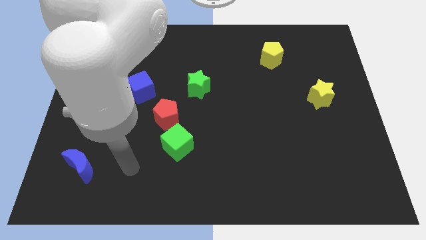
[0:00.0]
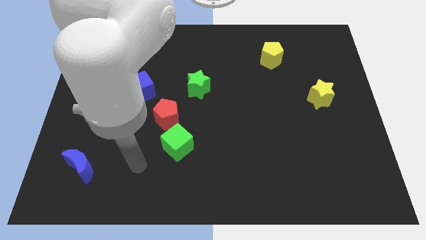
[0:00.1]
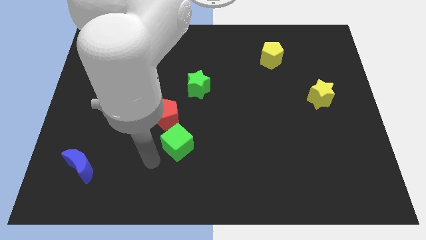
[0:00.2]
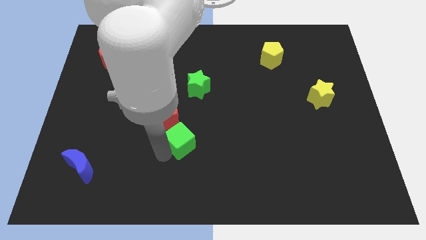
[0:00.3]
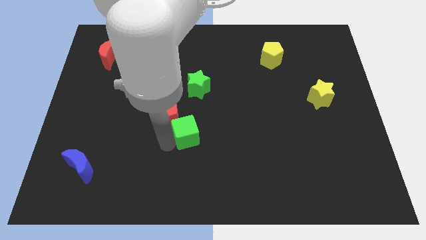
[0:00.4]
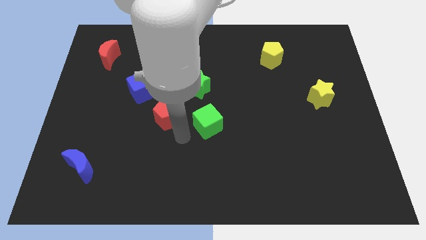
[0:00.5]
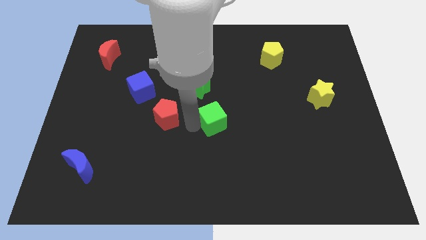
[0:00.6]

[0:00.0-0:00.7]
move the red pentagon away from the green cube

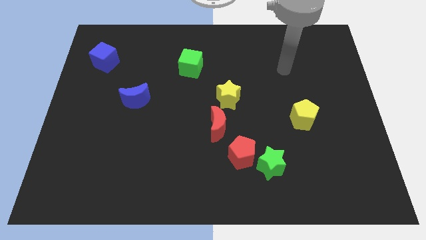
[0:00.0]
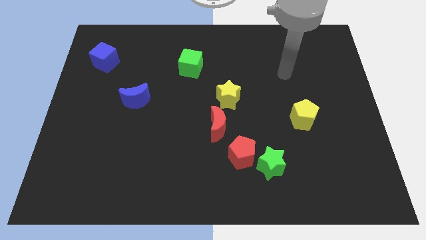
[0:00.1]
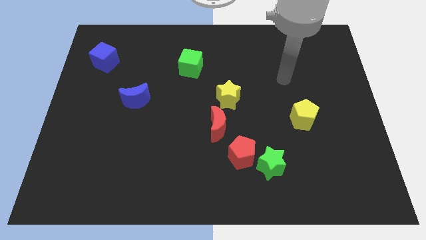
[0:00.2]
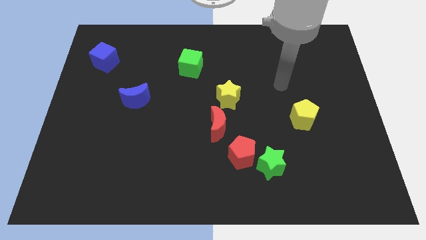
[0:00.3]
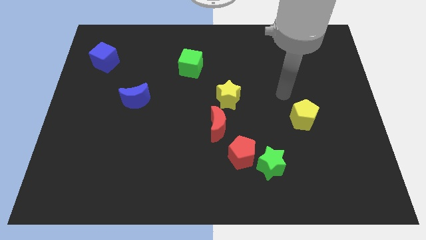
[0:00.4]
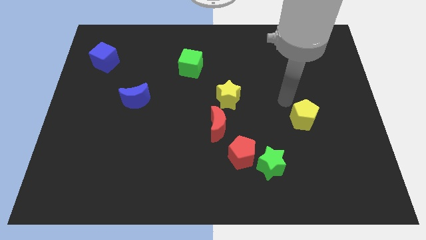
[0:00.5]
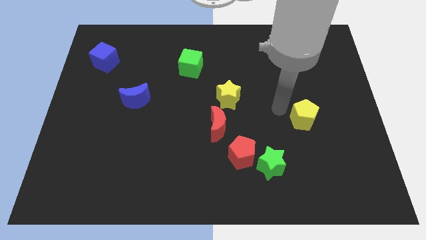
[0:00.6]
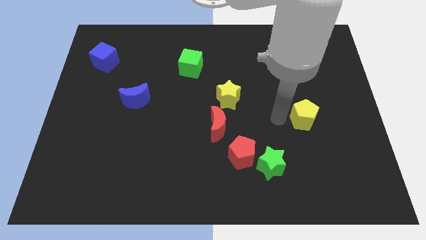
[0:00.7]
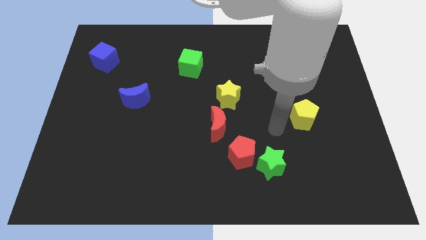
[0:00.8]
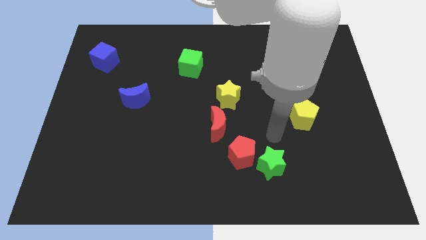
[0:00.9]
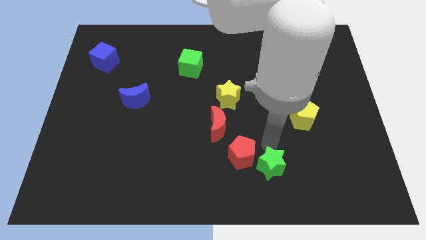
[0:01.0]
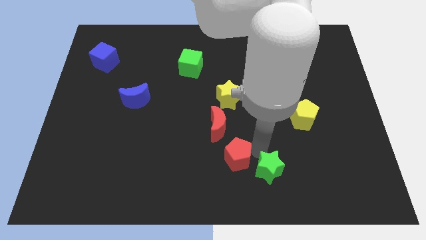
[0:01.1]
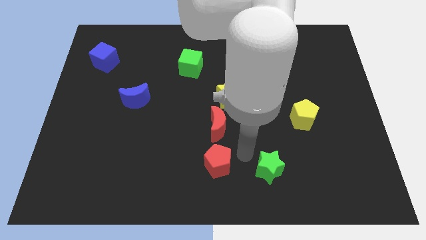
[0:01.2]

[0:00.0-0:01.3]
separate the green star from the red pentagon

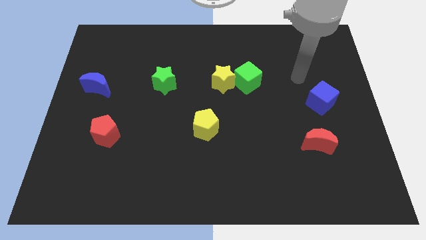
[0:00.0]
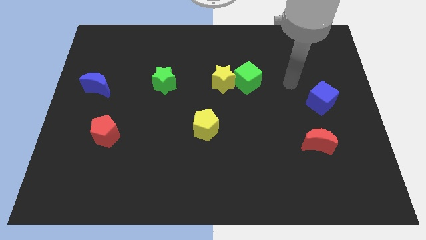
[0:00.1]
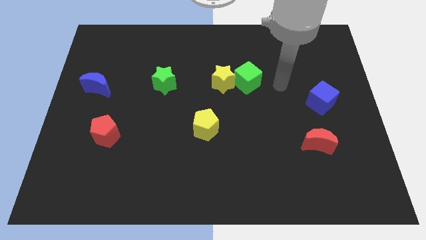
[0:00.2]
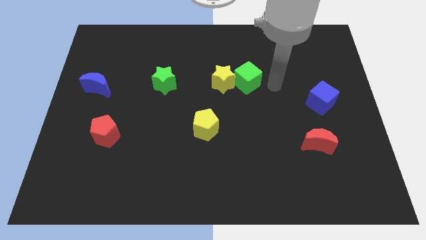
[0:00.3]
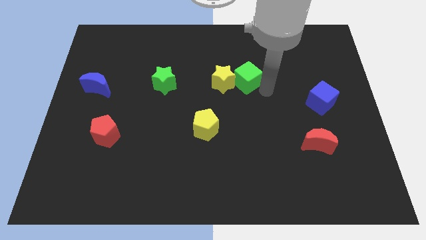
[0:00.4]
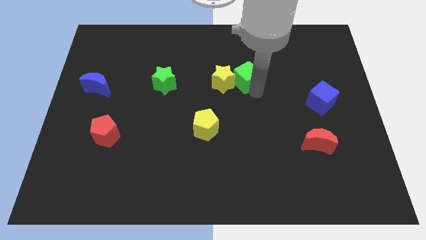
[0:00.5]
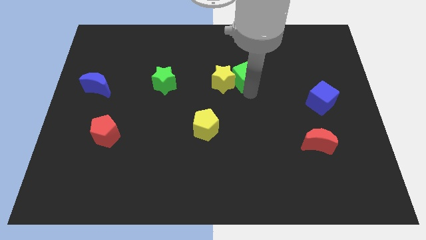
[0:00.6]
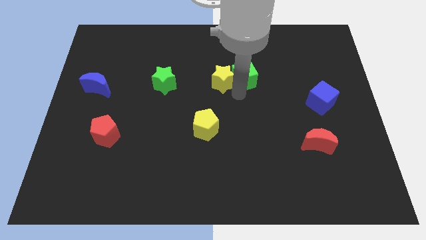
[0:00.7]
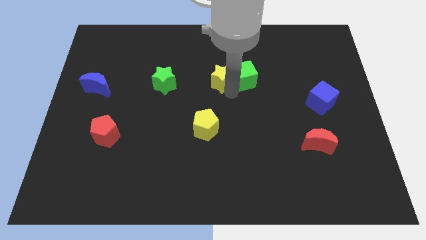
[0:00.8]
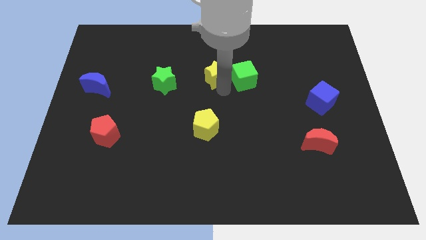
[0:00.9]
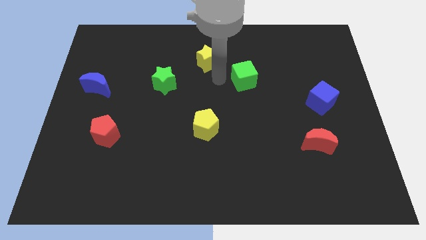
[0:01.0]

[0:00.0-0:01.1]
pull the green cube apart from the yellow star

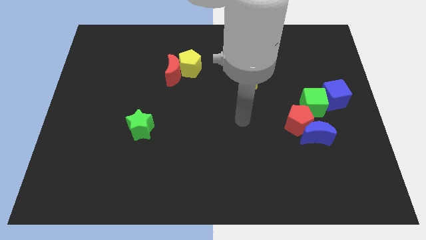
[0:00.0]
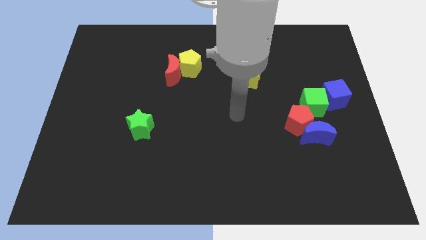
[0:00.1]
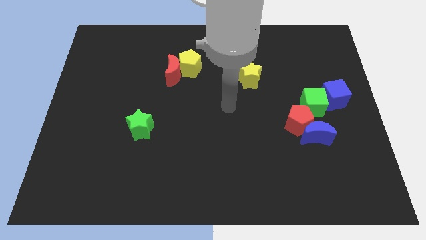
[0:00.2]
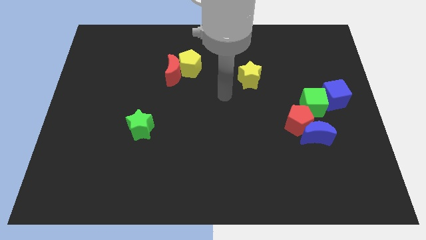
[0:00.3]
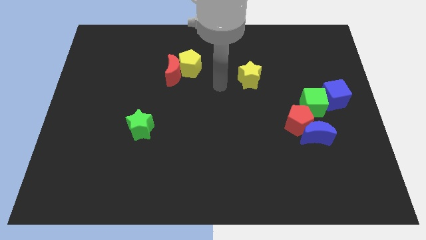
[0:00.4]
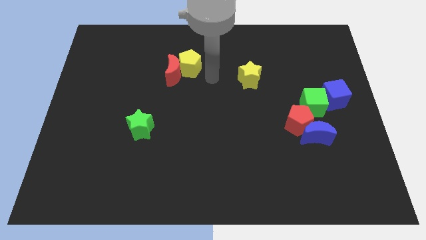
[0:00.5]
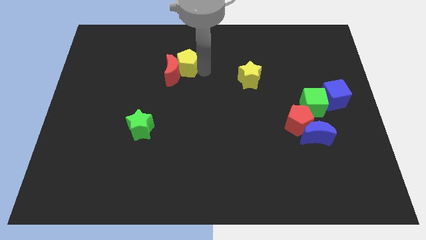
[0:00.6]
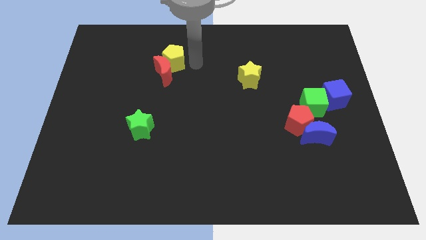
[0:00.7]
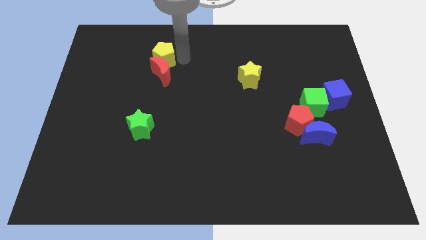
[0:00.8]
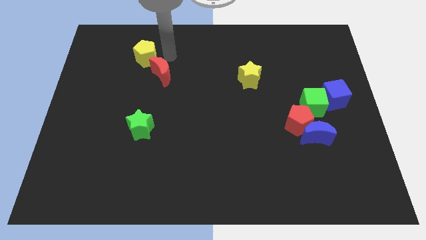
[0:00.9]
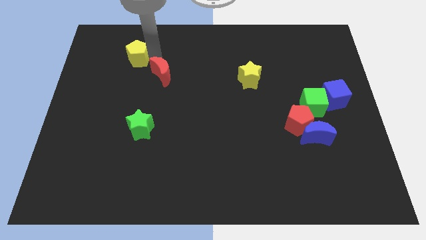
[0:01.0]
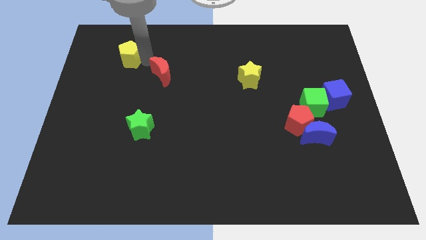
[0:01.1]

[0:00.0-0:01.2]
pull the red moon apart from the yellow pentagon

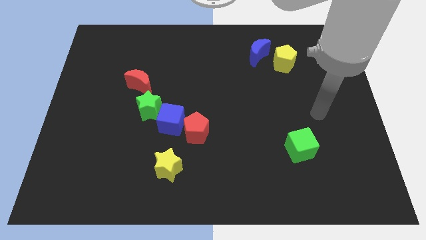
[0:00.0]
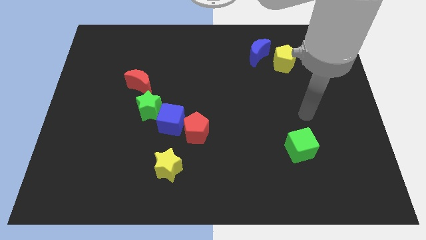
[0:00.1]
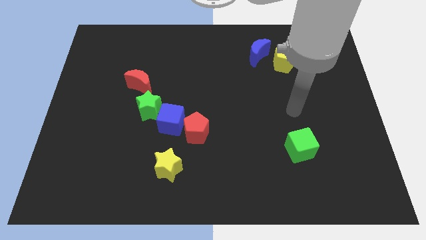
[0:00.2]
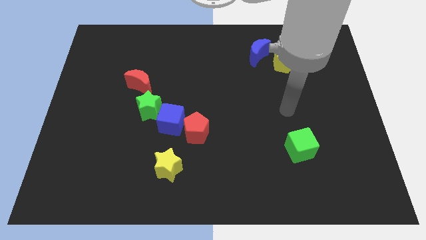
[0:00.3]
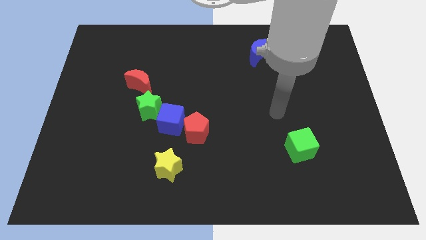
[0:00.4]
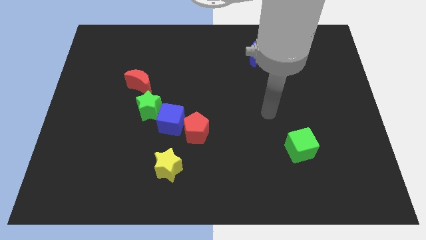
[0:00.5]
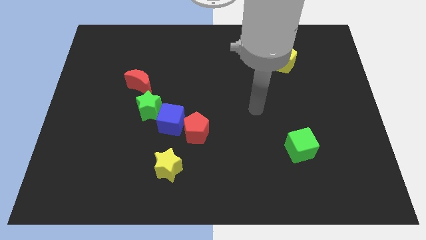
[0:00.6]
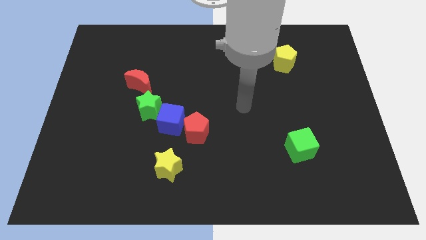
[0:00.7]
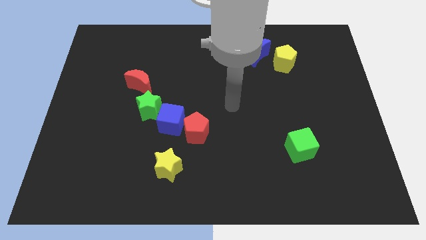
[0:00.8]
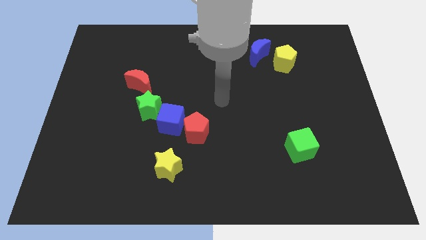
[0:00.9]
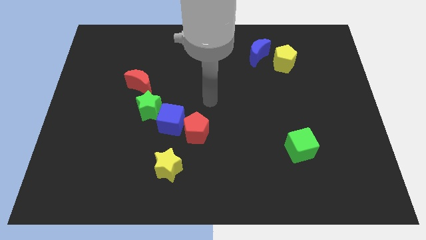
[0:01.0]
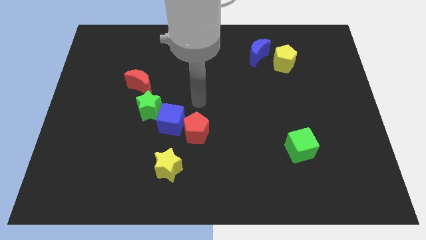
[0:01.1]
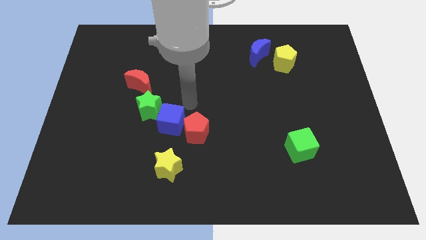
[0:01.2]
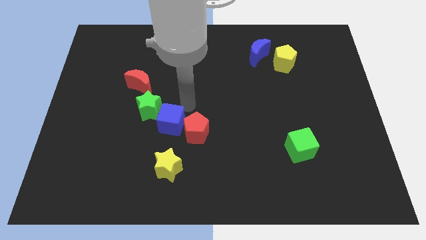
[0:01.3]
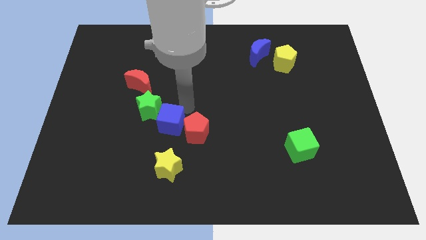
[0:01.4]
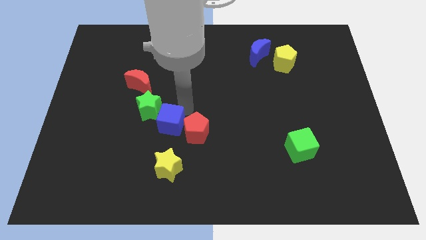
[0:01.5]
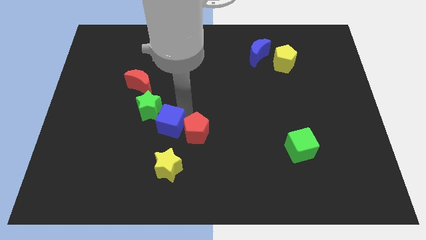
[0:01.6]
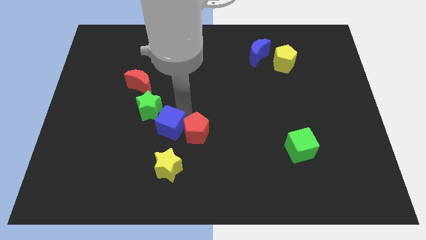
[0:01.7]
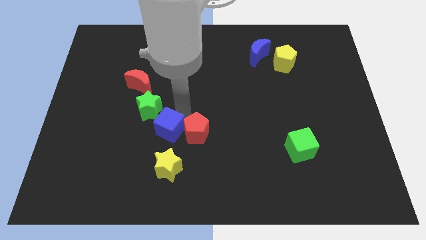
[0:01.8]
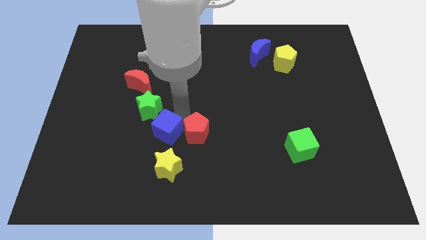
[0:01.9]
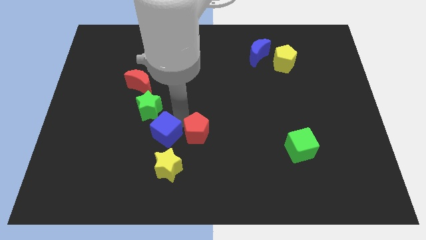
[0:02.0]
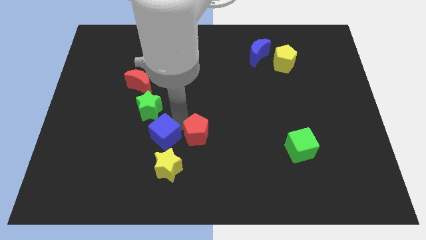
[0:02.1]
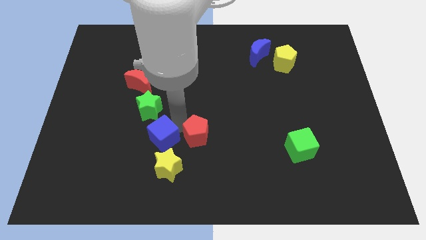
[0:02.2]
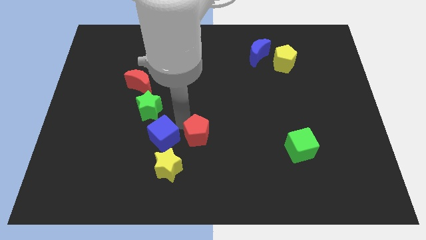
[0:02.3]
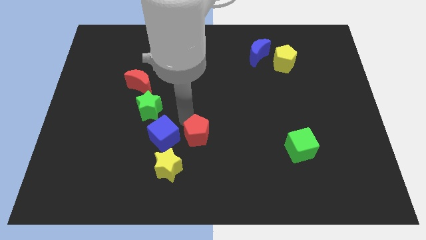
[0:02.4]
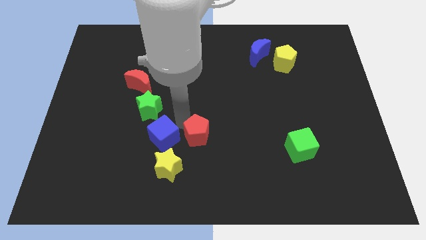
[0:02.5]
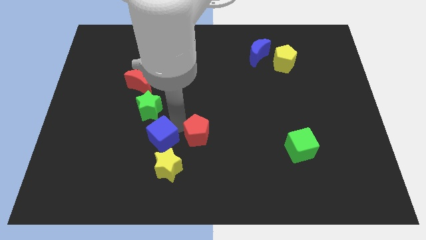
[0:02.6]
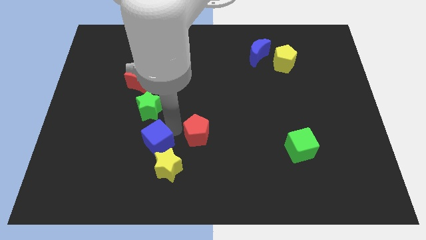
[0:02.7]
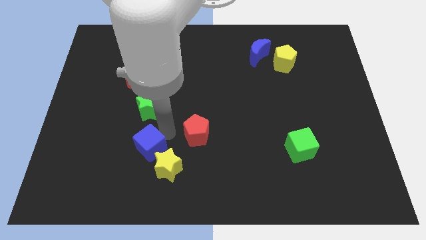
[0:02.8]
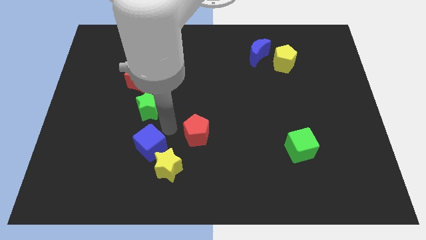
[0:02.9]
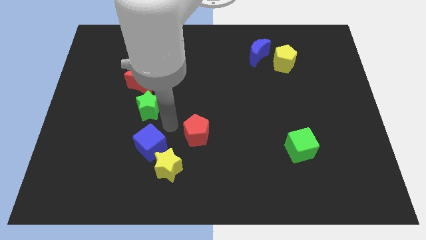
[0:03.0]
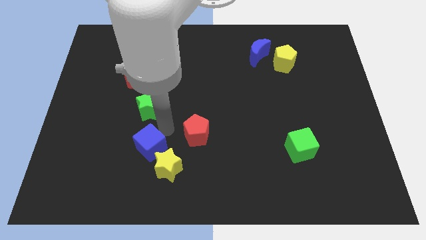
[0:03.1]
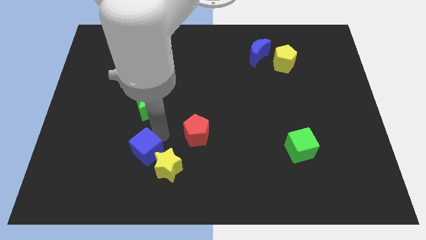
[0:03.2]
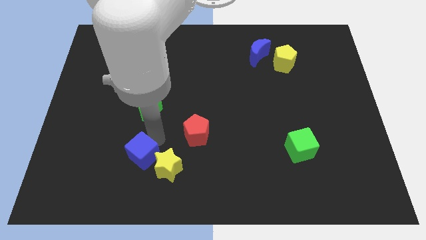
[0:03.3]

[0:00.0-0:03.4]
separate the blue cube from the green star and red pentagon

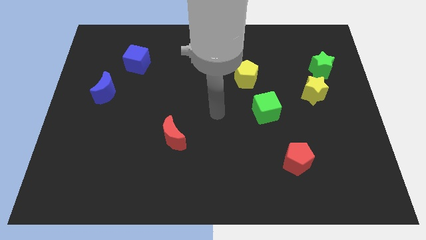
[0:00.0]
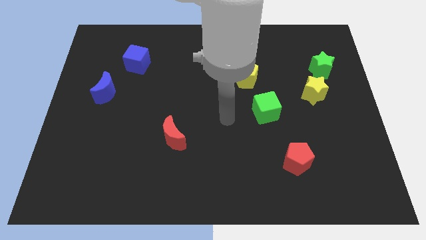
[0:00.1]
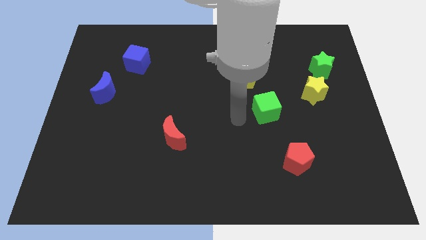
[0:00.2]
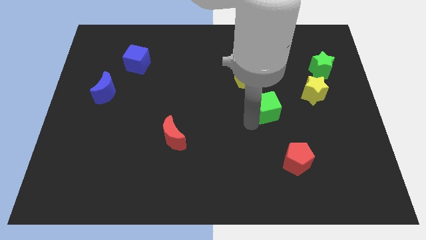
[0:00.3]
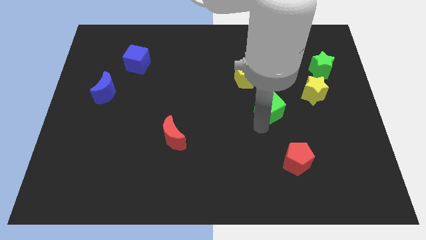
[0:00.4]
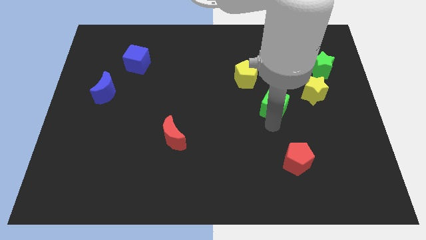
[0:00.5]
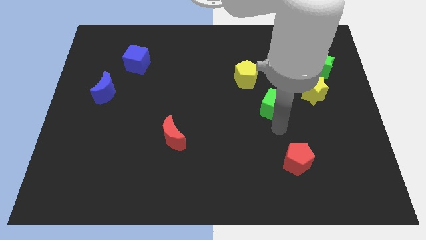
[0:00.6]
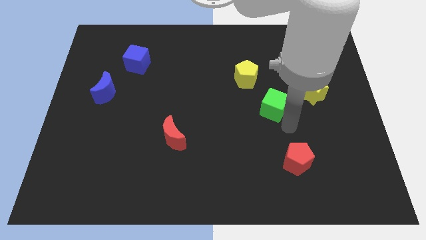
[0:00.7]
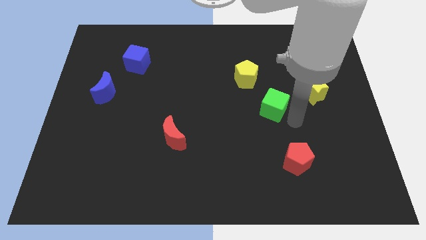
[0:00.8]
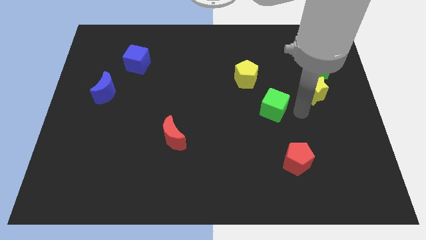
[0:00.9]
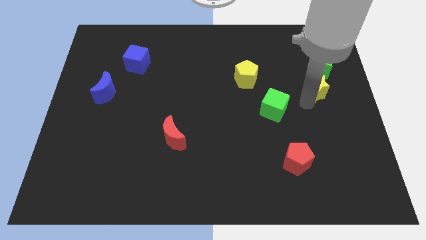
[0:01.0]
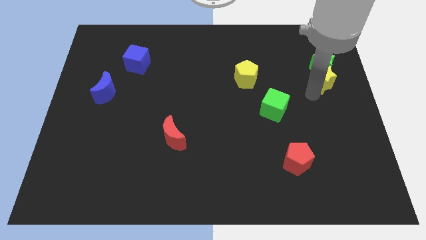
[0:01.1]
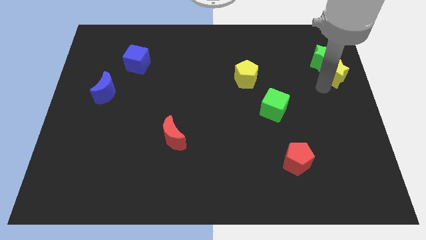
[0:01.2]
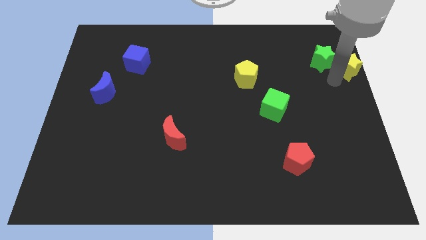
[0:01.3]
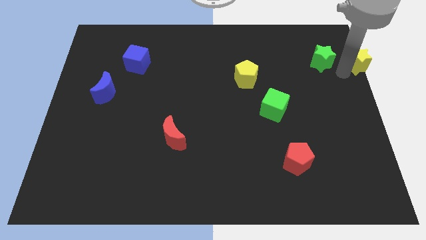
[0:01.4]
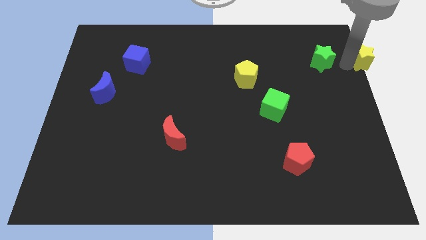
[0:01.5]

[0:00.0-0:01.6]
move the green star away from the yellow star
